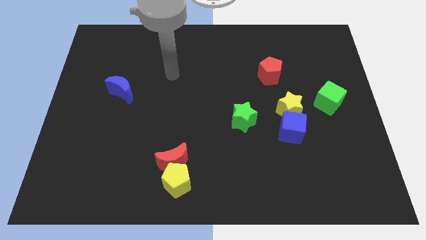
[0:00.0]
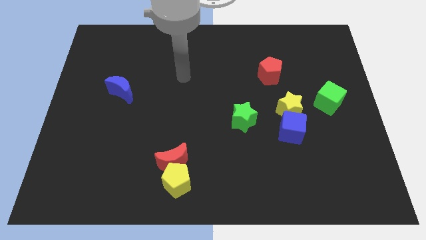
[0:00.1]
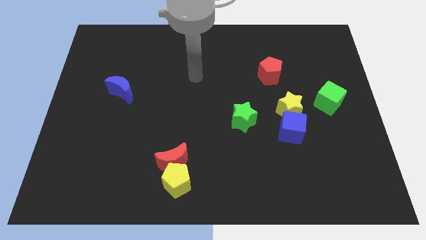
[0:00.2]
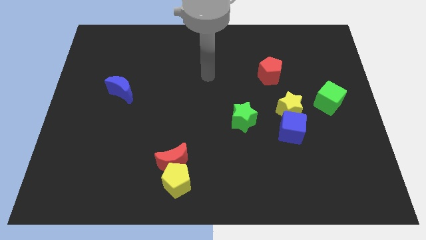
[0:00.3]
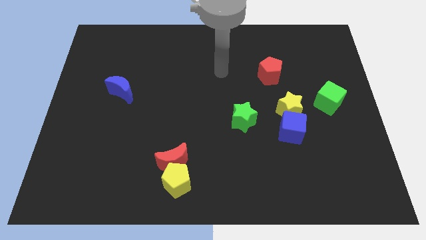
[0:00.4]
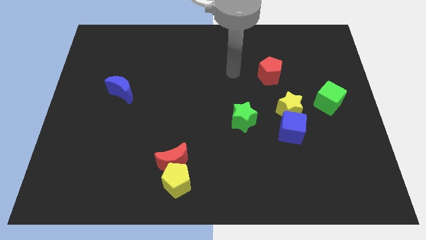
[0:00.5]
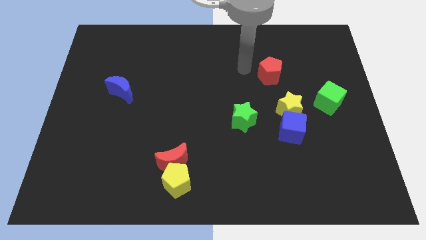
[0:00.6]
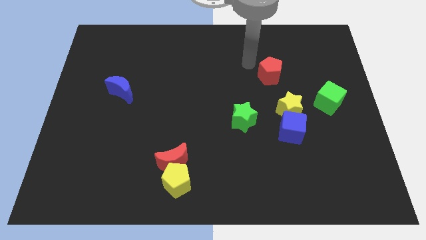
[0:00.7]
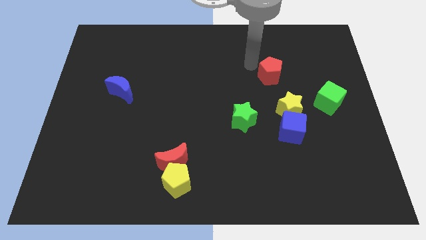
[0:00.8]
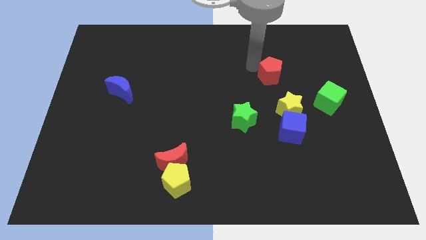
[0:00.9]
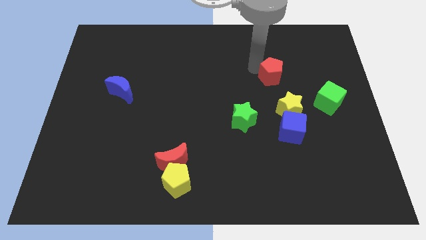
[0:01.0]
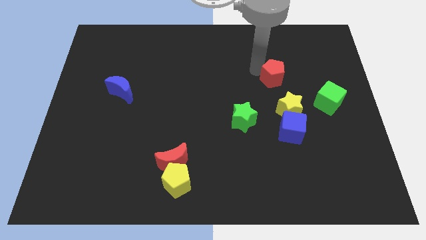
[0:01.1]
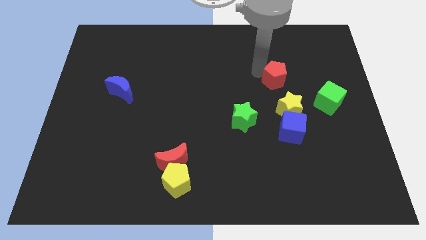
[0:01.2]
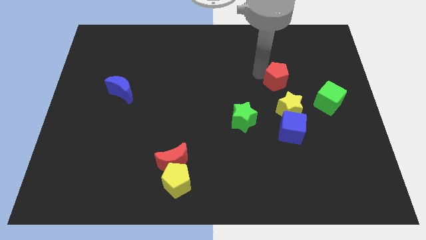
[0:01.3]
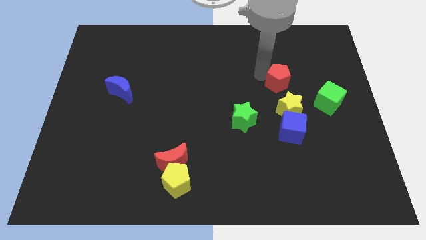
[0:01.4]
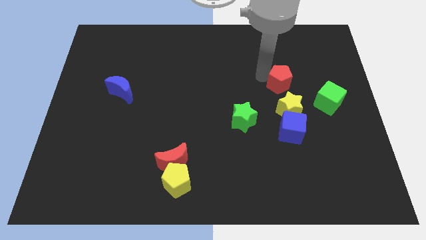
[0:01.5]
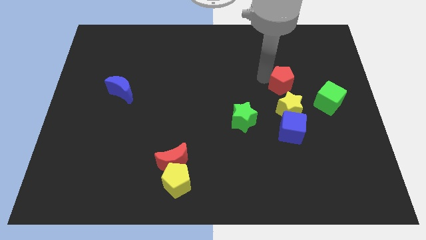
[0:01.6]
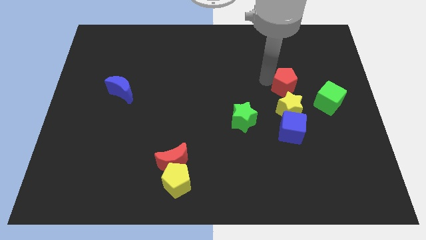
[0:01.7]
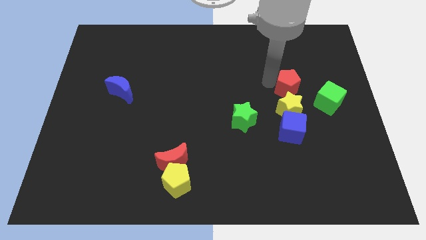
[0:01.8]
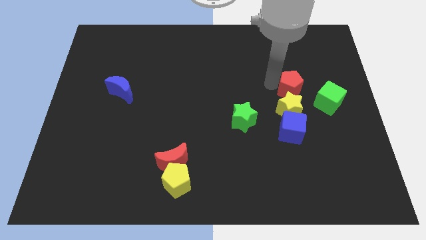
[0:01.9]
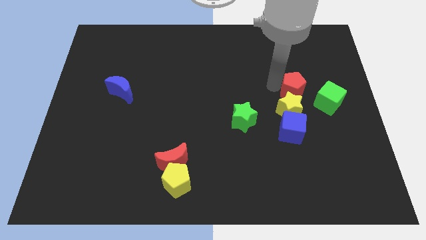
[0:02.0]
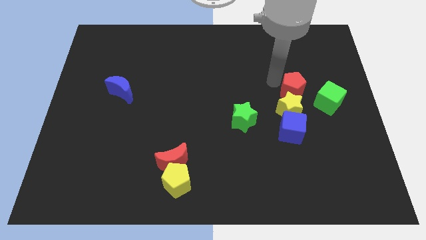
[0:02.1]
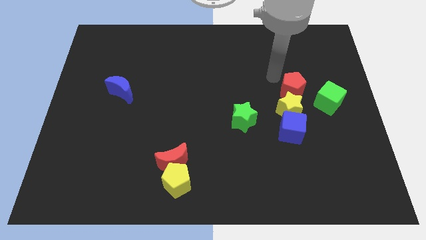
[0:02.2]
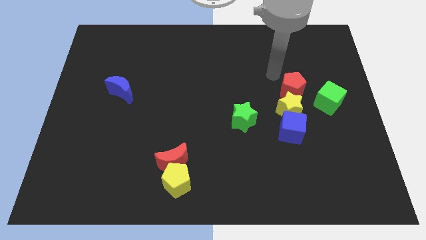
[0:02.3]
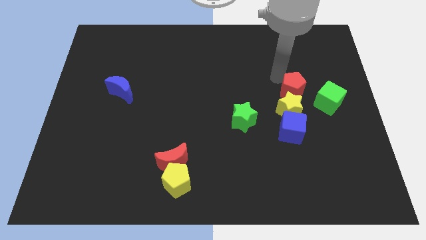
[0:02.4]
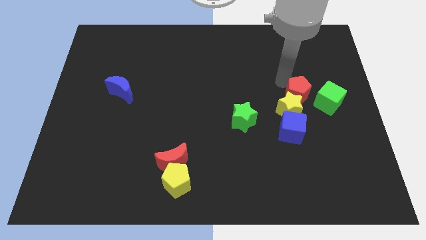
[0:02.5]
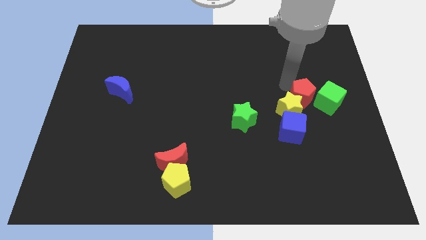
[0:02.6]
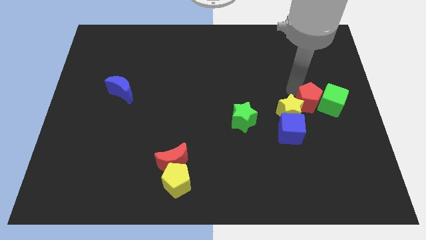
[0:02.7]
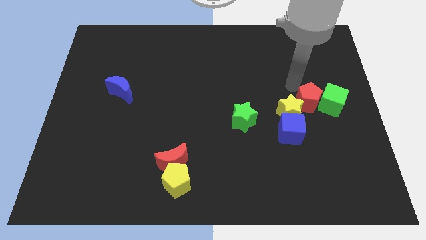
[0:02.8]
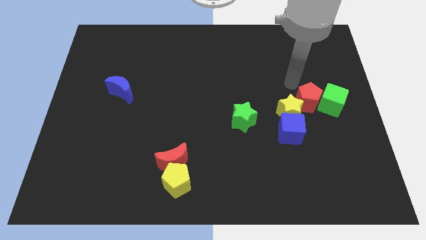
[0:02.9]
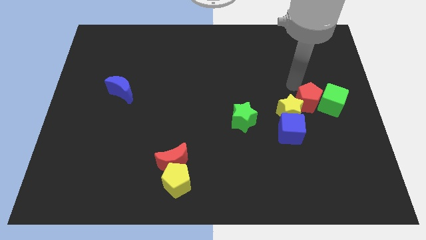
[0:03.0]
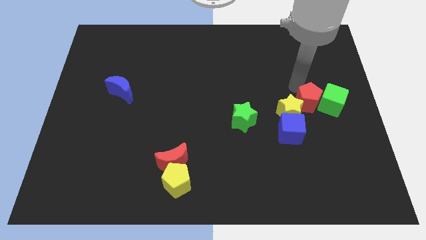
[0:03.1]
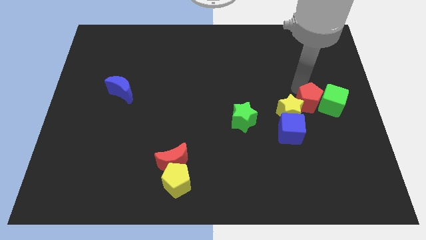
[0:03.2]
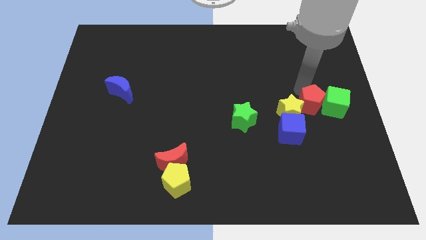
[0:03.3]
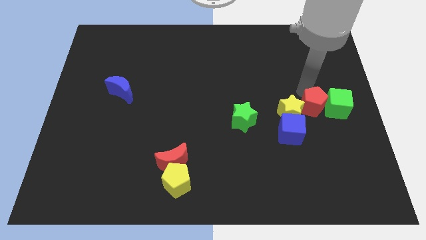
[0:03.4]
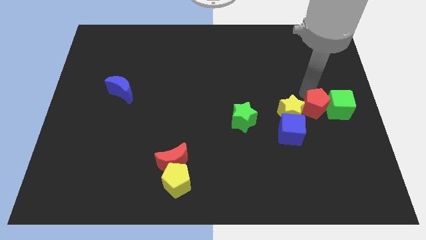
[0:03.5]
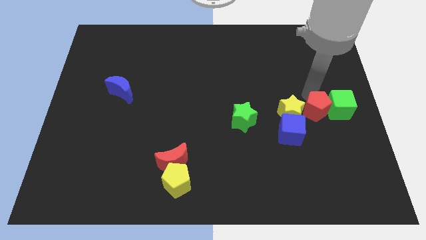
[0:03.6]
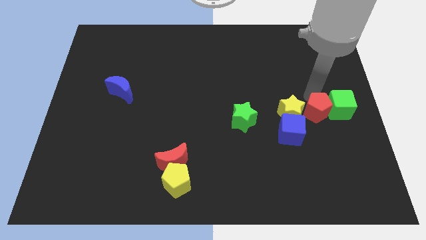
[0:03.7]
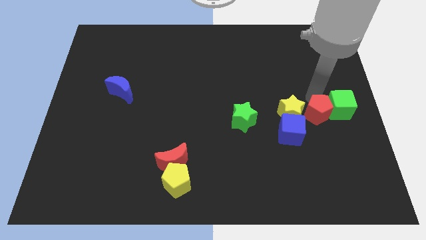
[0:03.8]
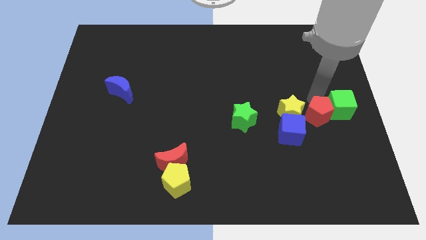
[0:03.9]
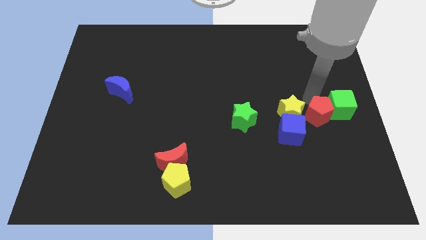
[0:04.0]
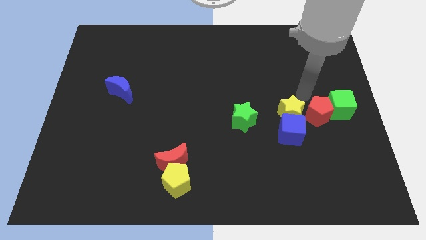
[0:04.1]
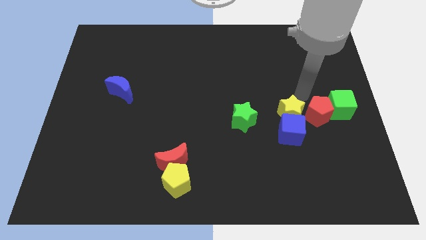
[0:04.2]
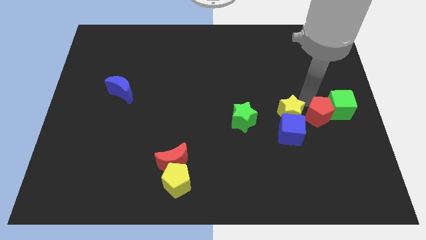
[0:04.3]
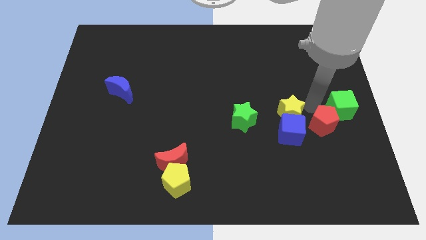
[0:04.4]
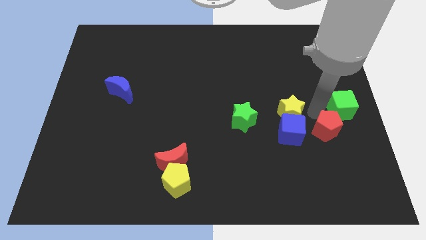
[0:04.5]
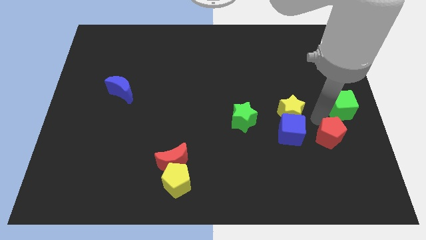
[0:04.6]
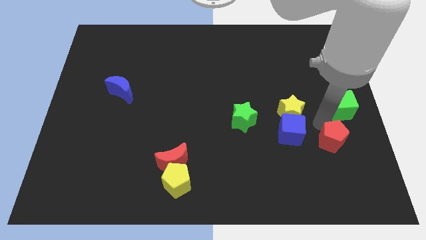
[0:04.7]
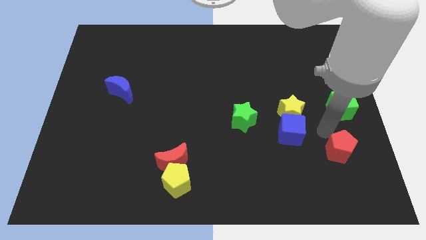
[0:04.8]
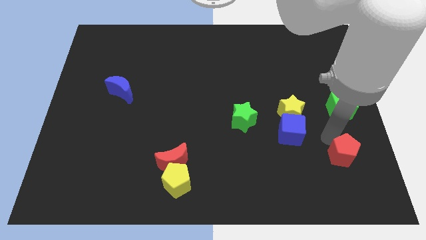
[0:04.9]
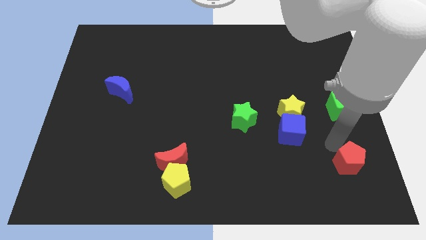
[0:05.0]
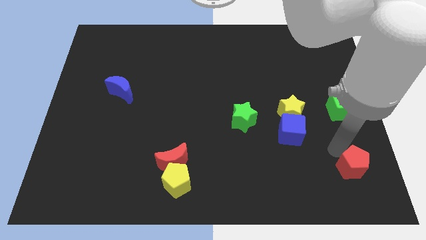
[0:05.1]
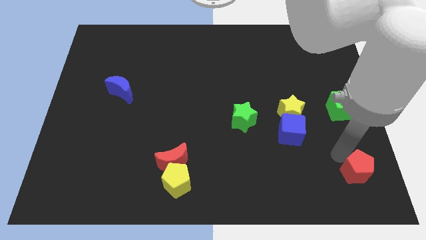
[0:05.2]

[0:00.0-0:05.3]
put the red pentagon to the bottom right

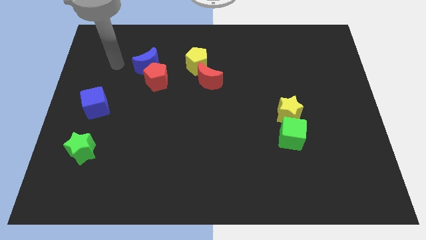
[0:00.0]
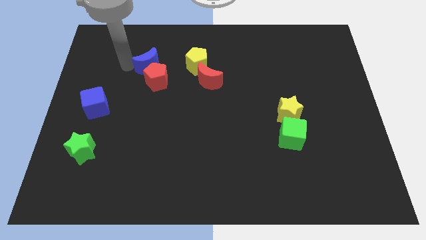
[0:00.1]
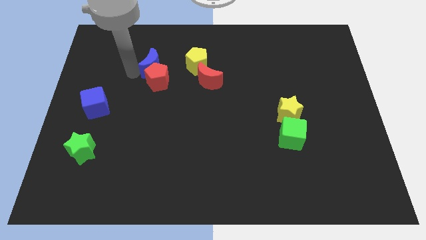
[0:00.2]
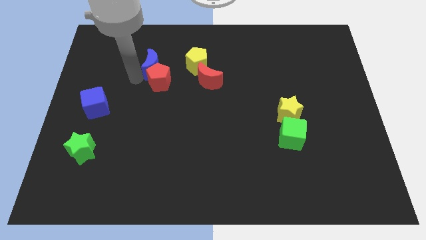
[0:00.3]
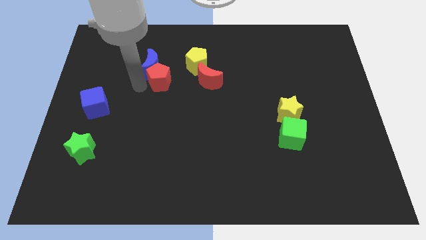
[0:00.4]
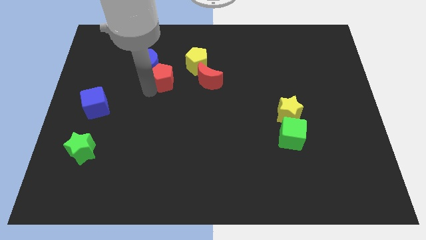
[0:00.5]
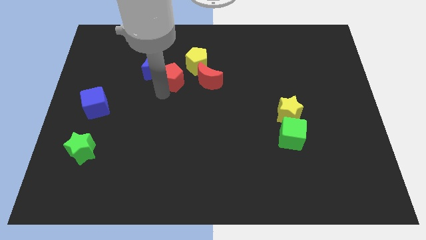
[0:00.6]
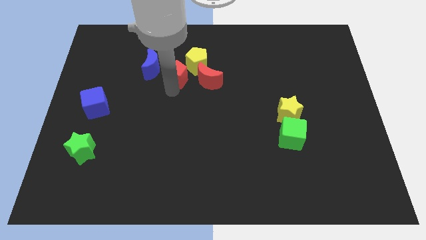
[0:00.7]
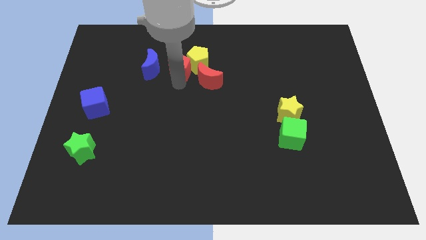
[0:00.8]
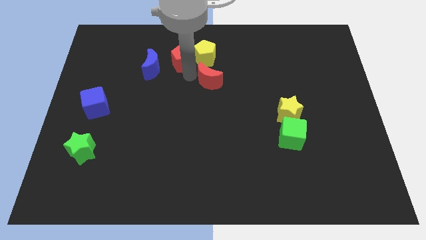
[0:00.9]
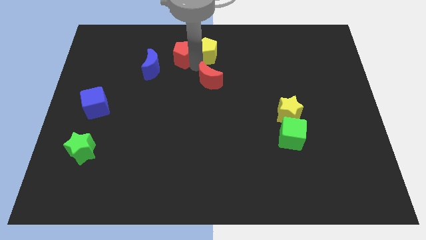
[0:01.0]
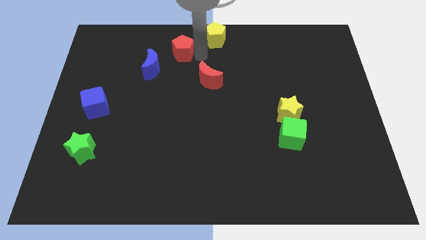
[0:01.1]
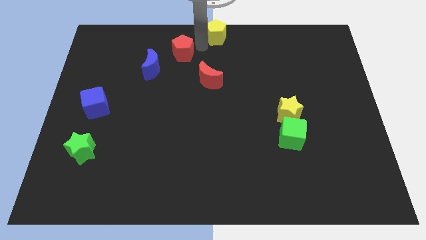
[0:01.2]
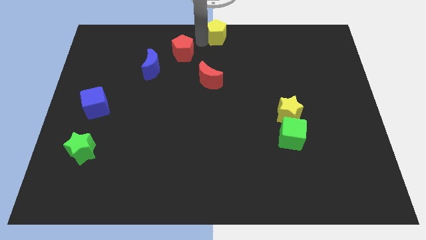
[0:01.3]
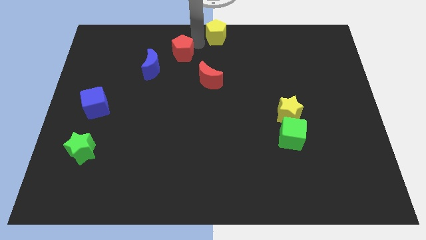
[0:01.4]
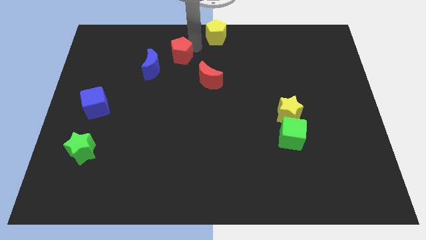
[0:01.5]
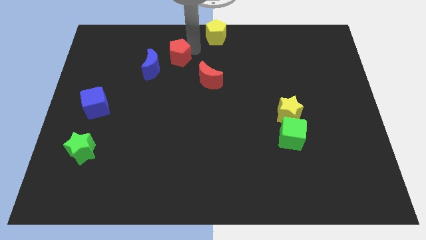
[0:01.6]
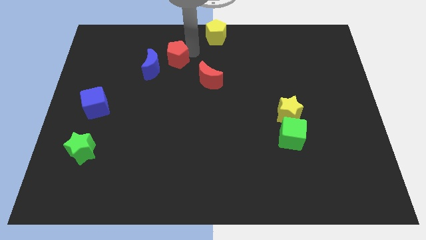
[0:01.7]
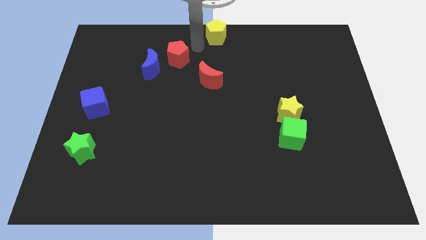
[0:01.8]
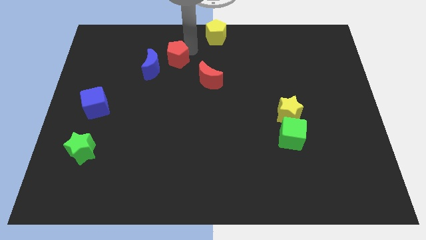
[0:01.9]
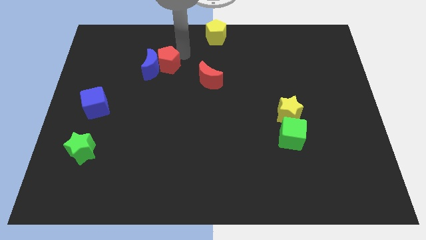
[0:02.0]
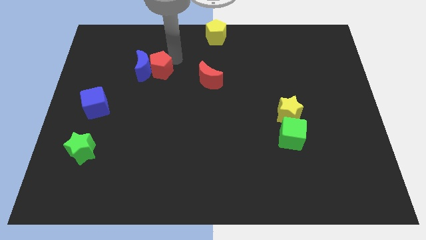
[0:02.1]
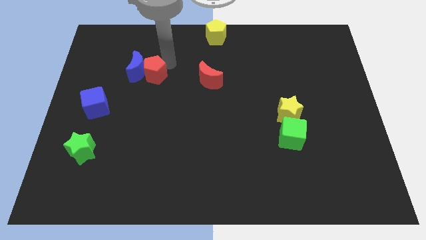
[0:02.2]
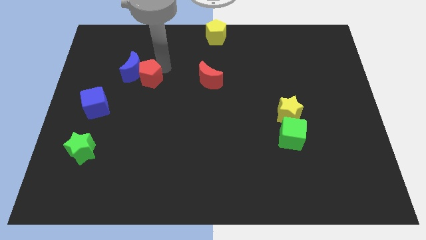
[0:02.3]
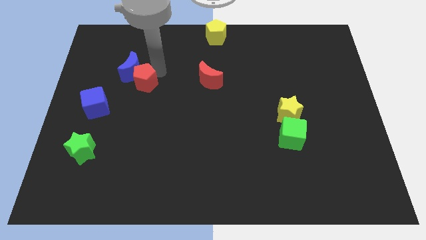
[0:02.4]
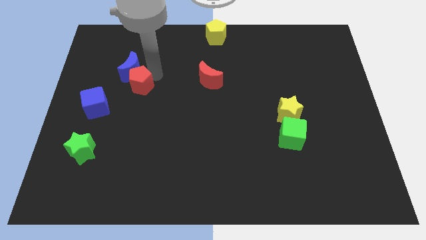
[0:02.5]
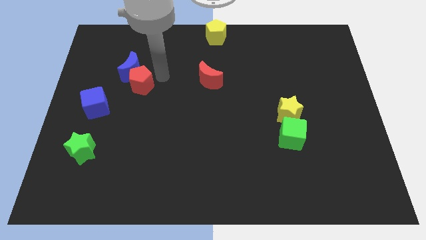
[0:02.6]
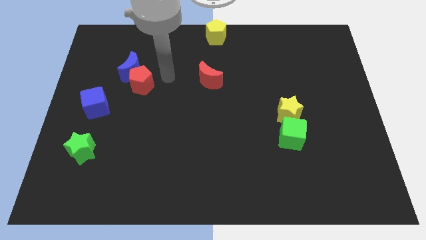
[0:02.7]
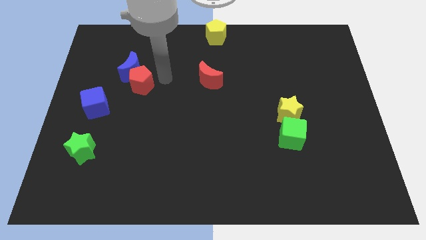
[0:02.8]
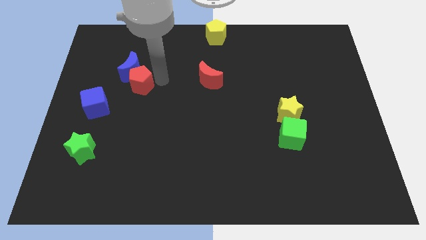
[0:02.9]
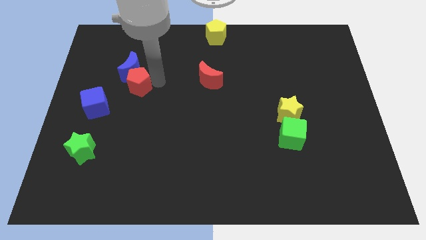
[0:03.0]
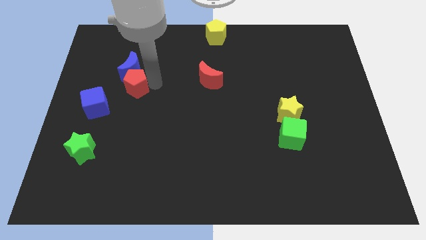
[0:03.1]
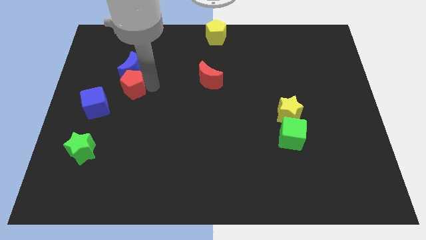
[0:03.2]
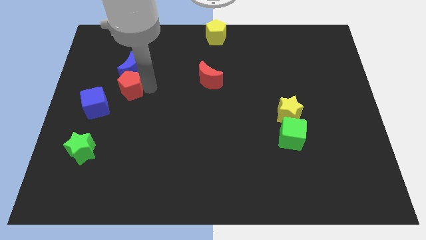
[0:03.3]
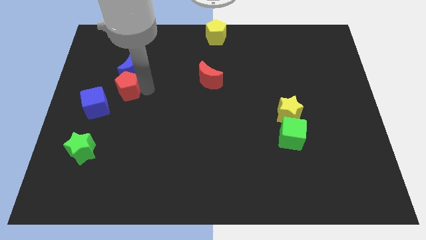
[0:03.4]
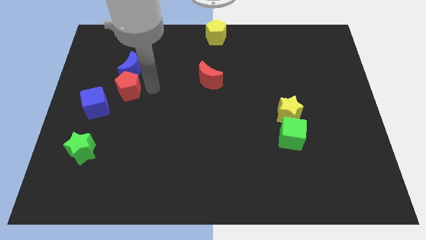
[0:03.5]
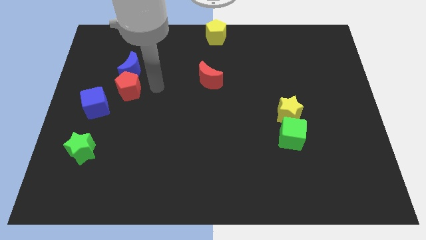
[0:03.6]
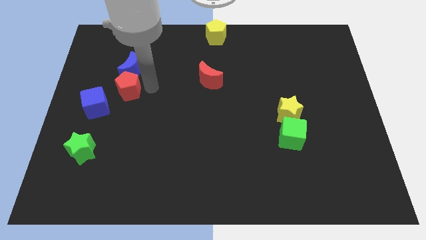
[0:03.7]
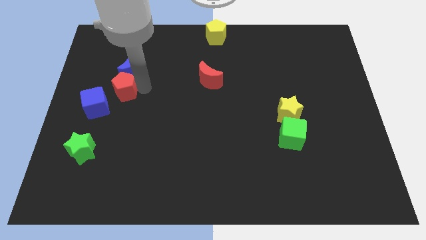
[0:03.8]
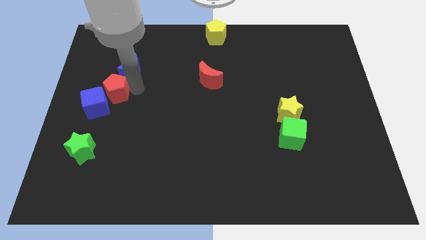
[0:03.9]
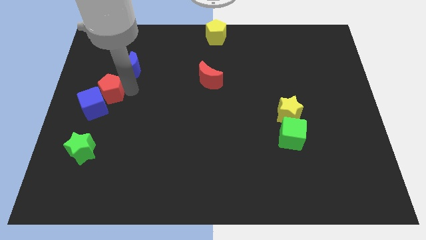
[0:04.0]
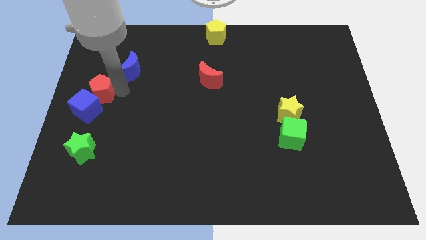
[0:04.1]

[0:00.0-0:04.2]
slide the red pentagon to the left side
